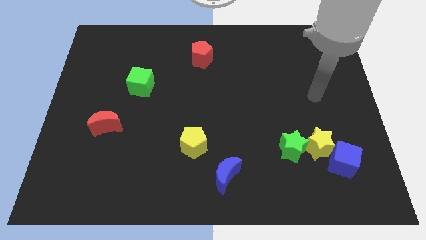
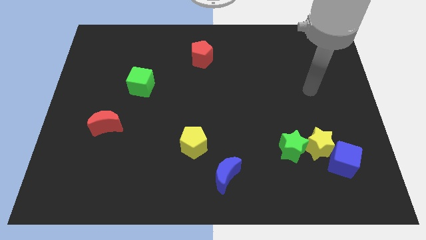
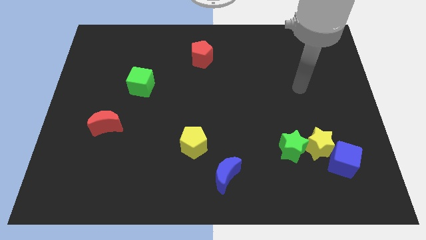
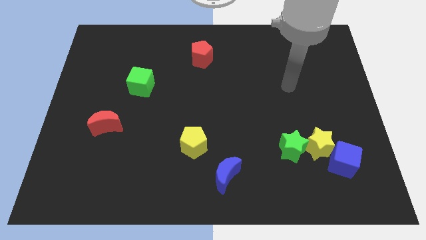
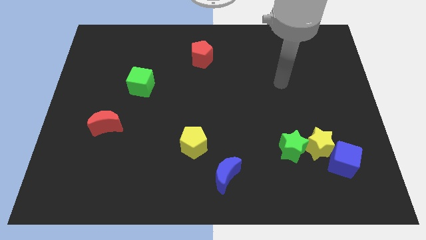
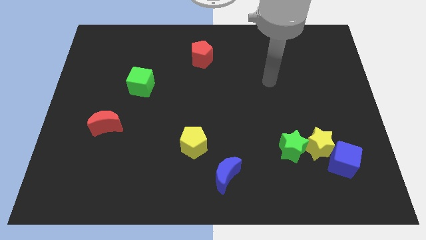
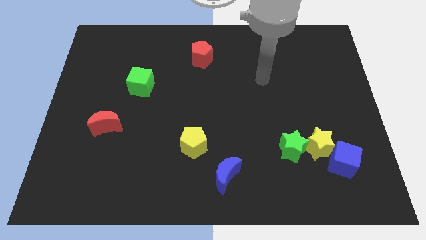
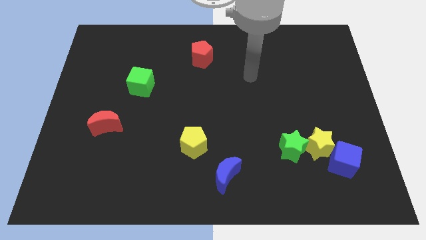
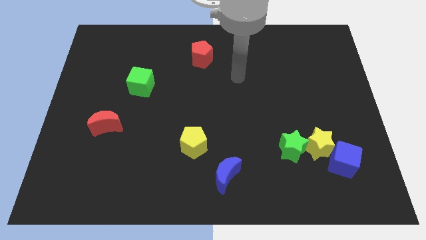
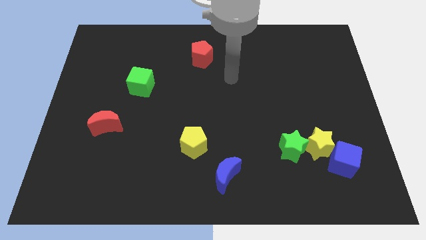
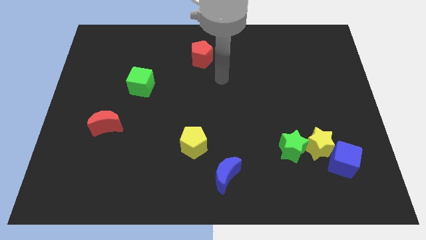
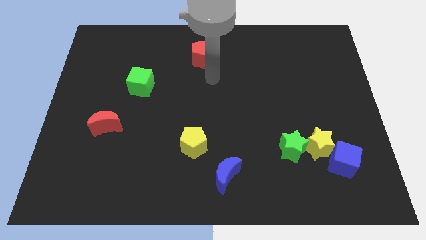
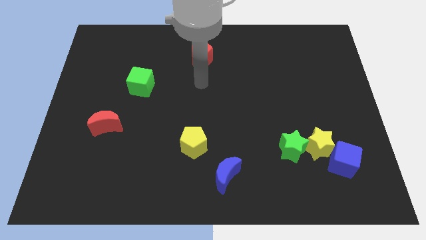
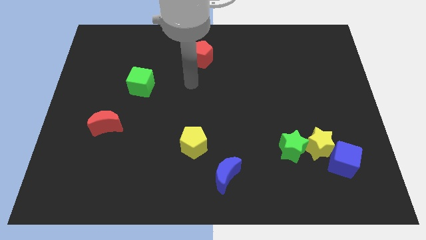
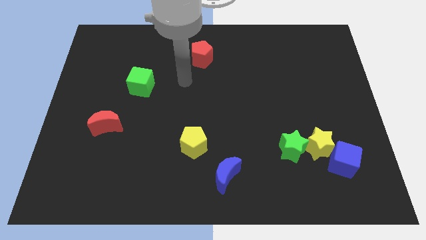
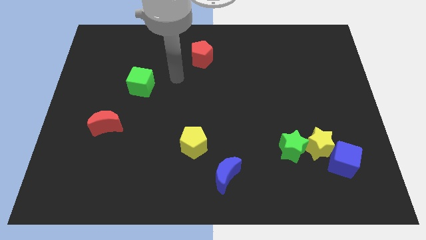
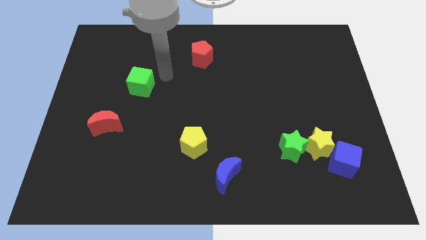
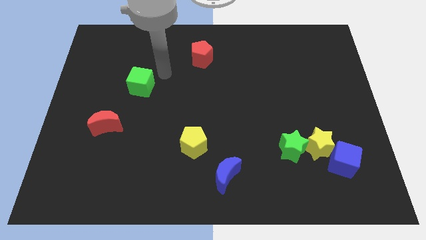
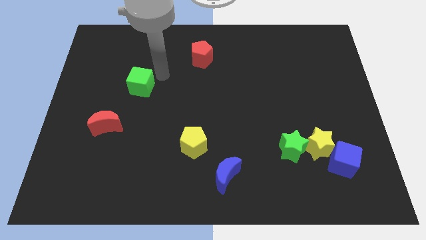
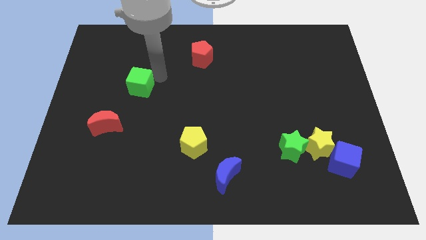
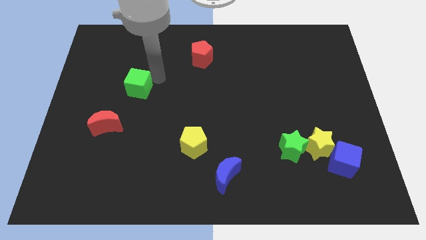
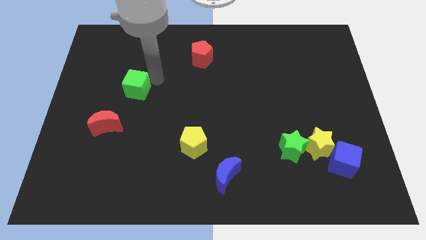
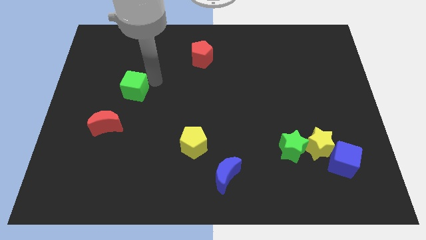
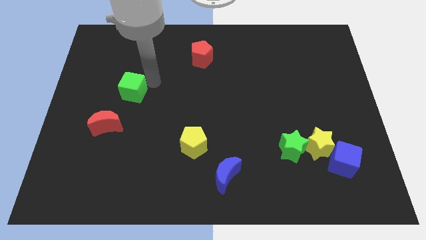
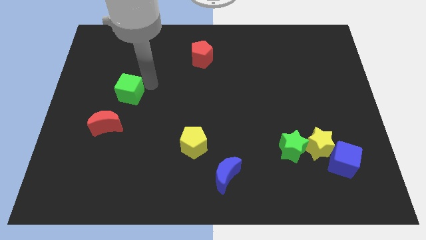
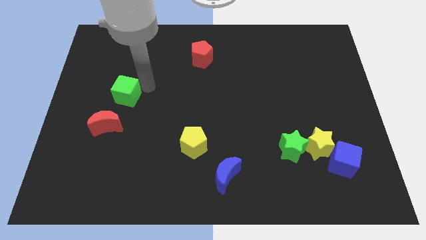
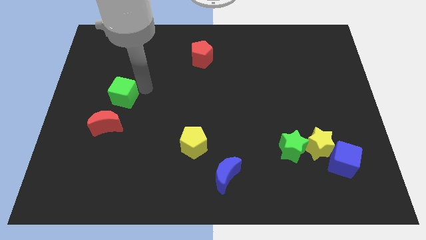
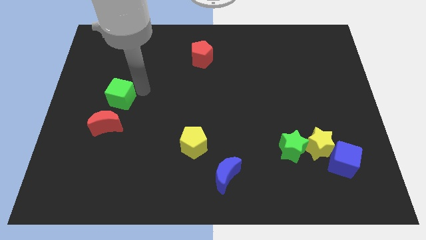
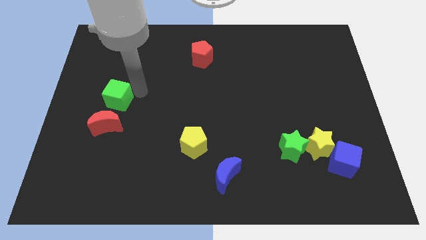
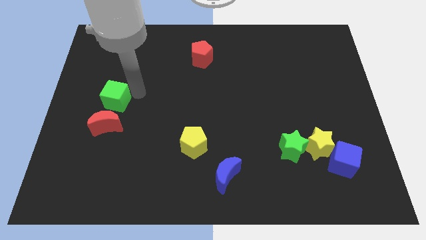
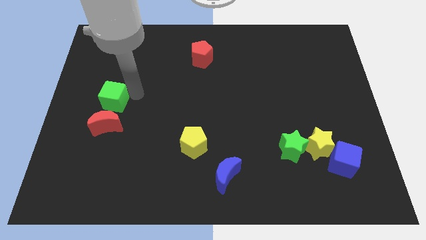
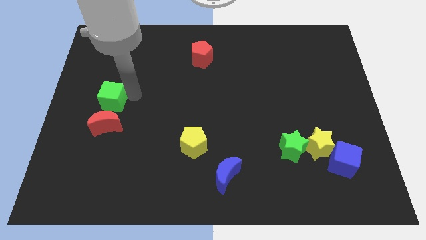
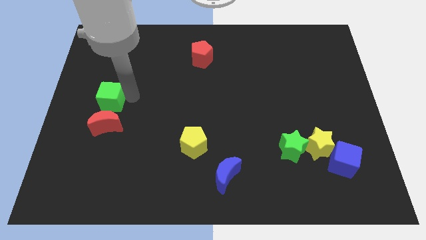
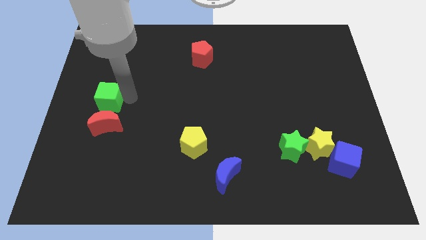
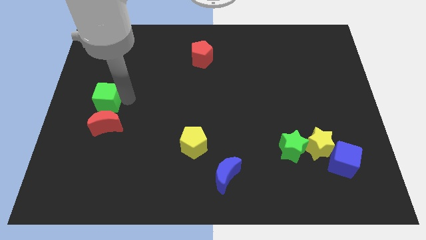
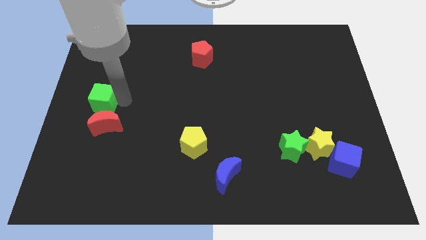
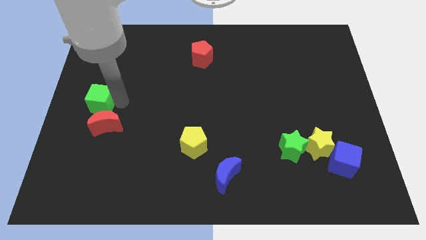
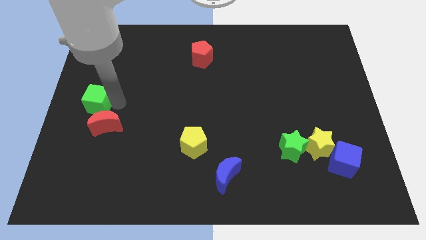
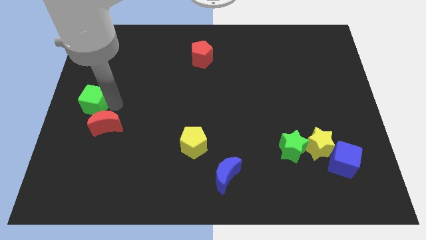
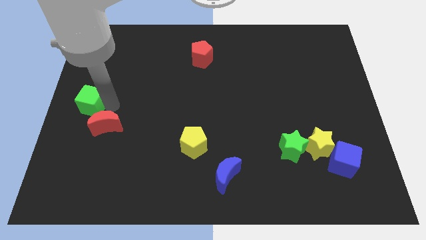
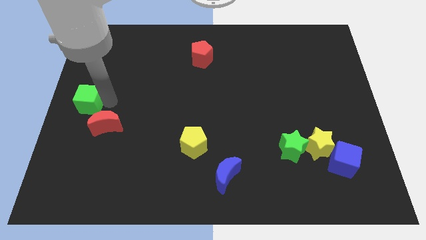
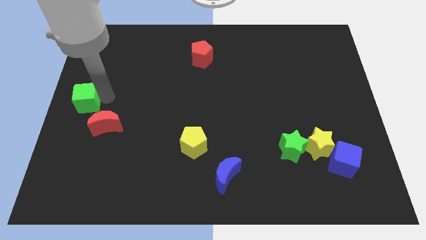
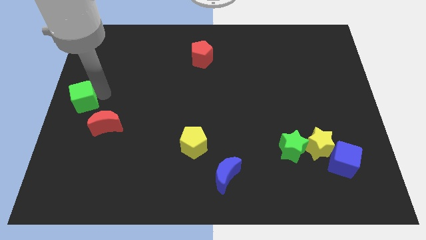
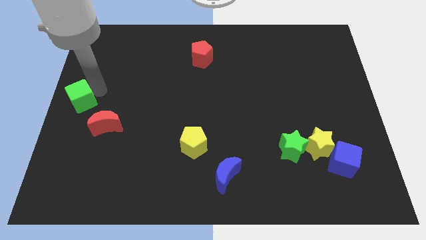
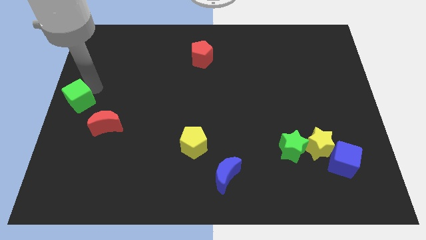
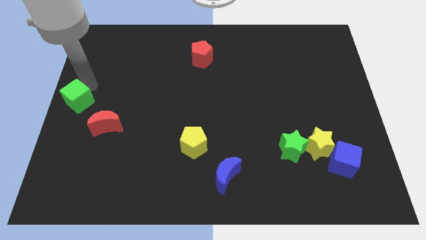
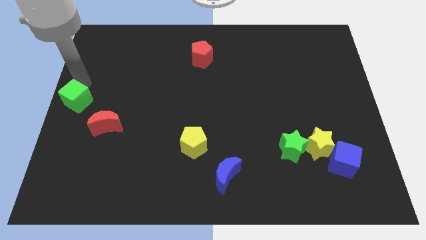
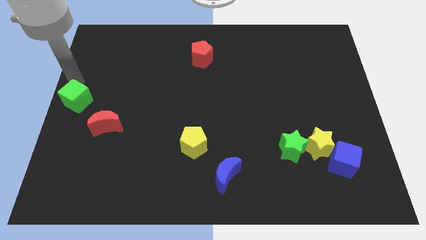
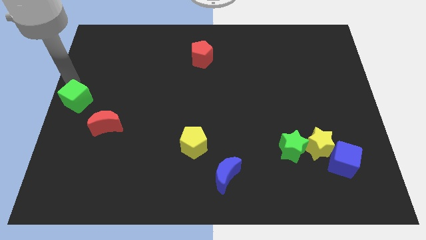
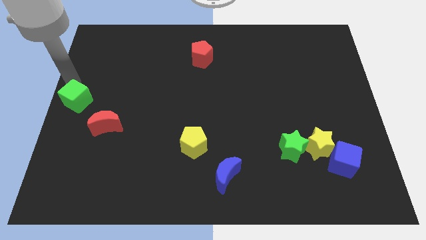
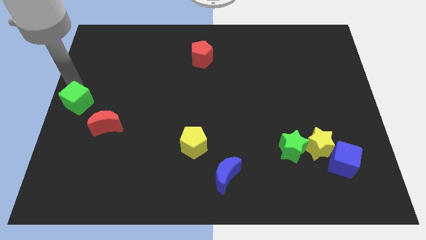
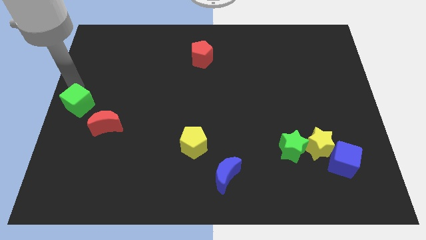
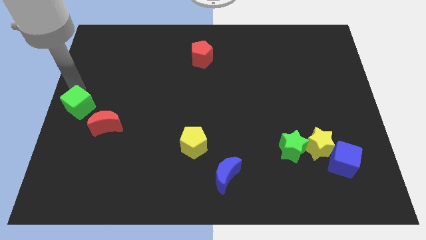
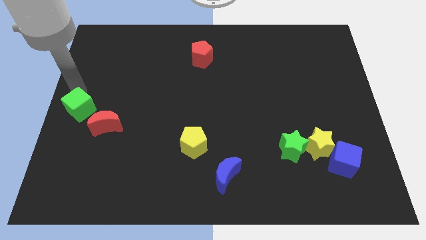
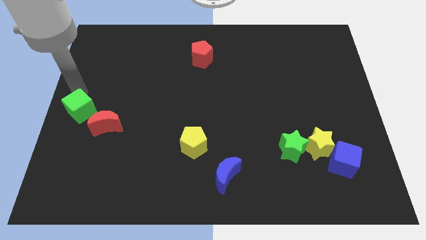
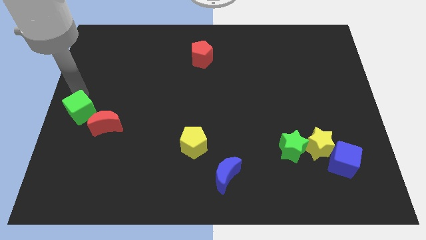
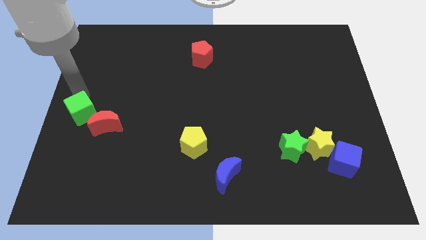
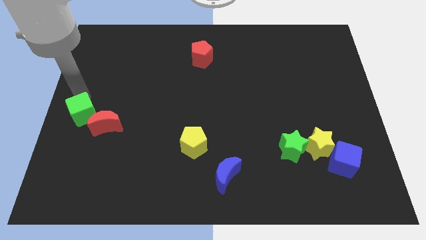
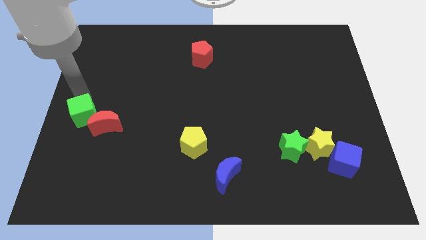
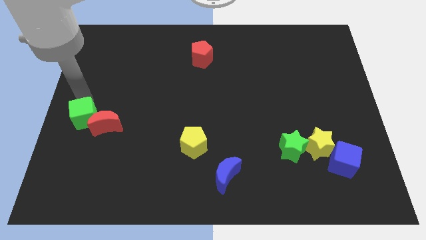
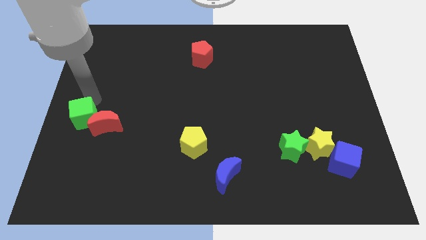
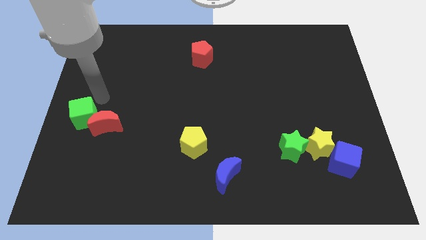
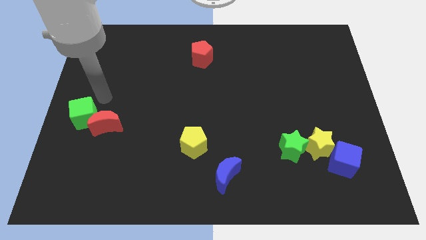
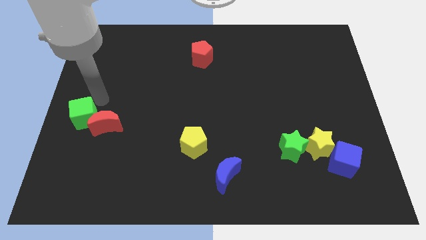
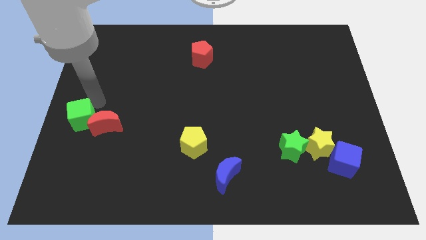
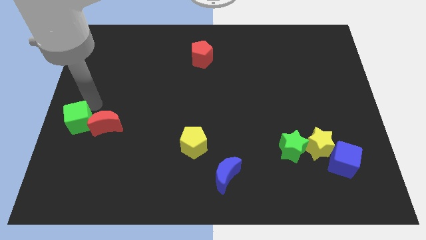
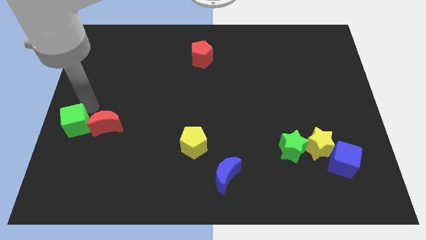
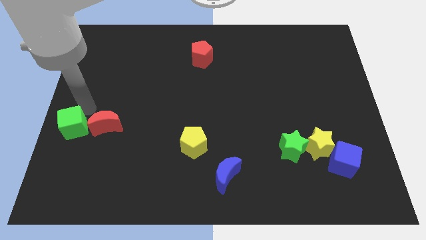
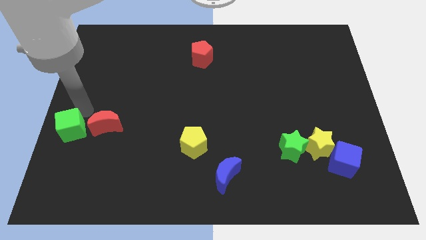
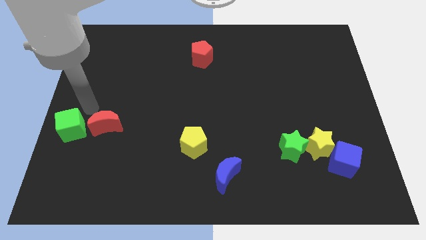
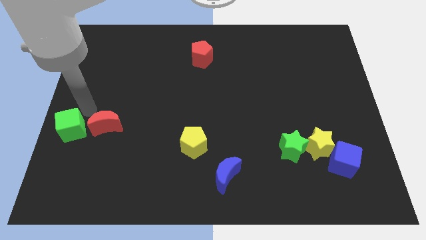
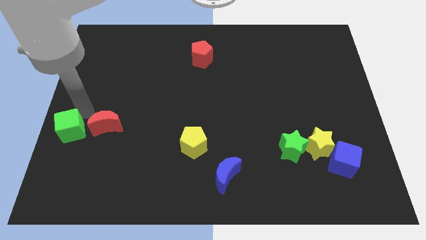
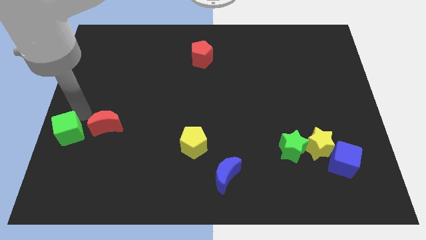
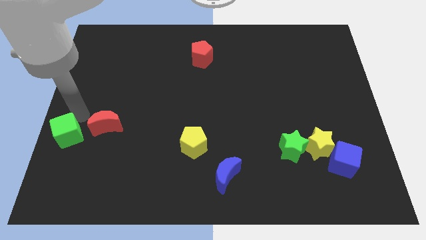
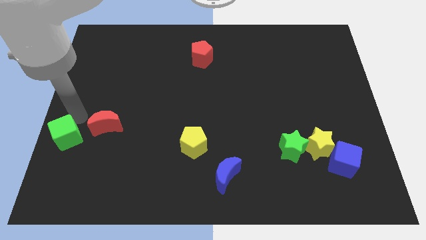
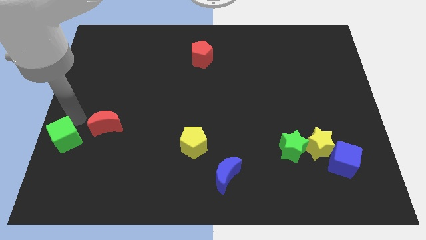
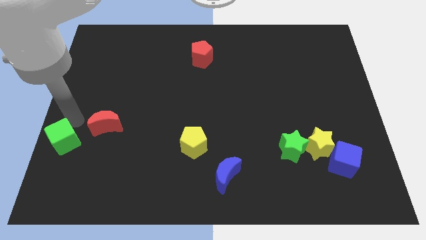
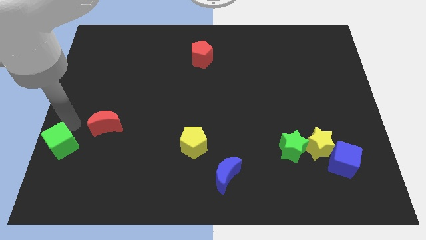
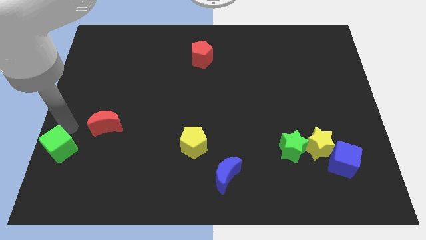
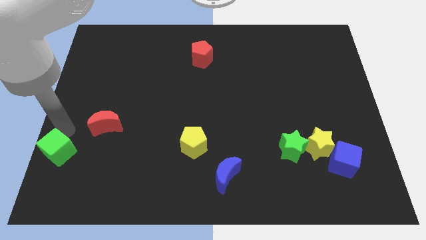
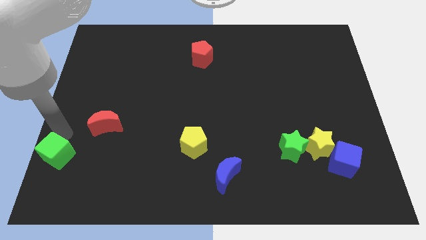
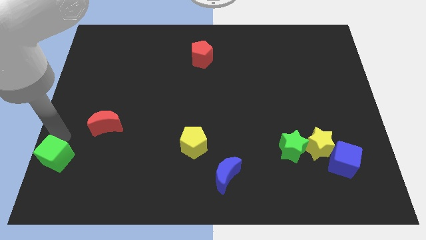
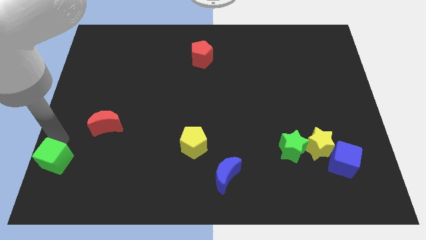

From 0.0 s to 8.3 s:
put the green cube to the bottom left corner
